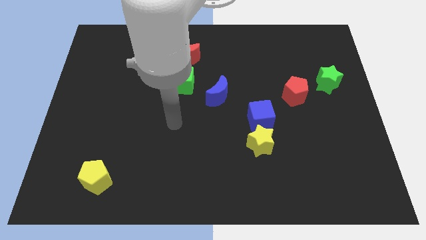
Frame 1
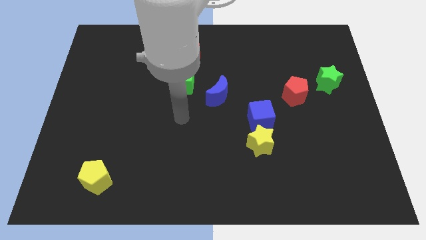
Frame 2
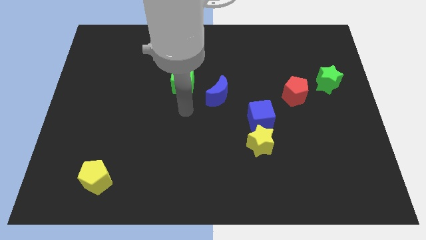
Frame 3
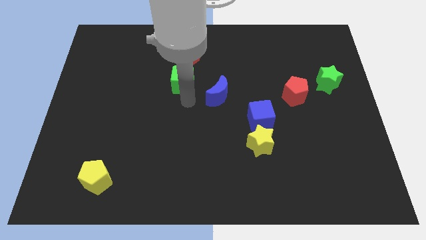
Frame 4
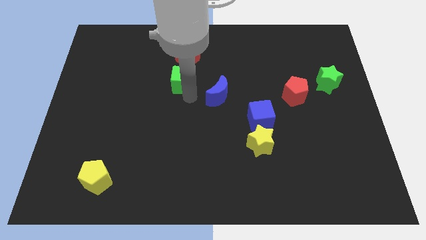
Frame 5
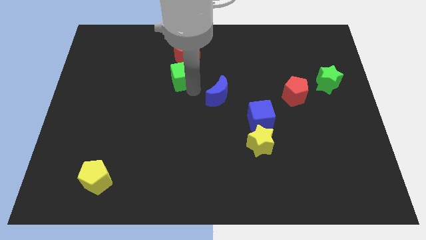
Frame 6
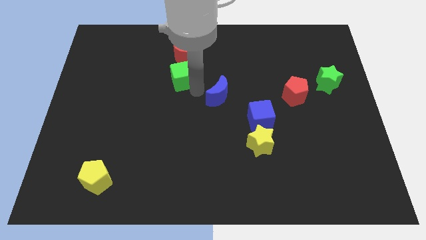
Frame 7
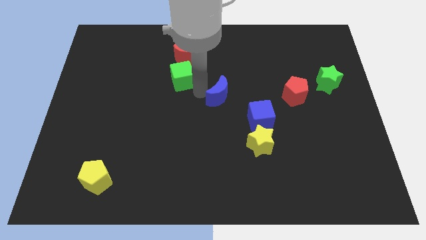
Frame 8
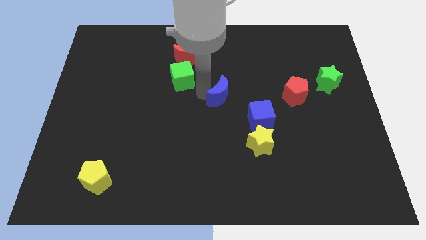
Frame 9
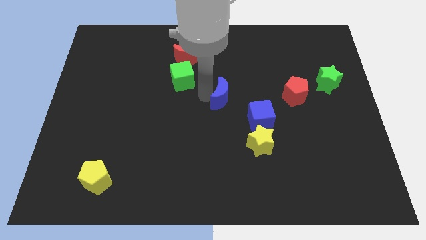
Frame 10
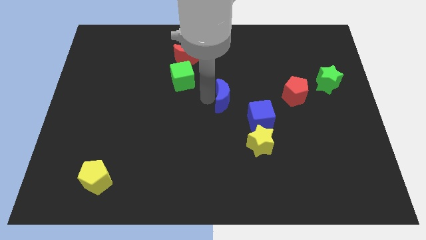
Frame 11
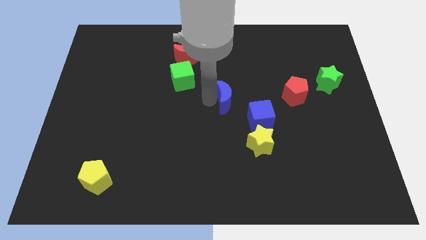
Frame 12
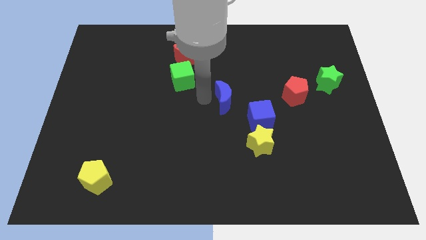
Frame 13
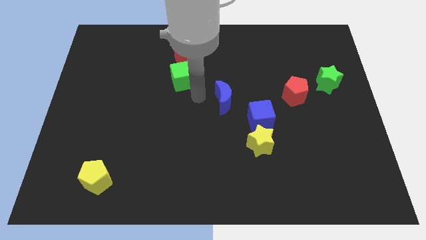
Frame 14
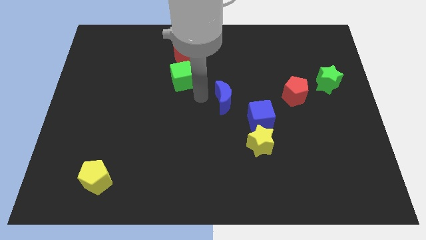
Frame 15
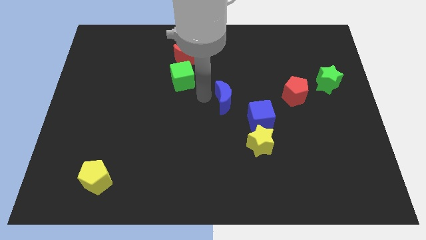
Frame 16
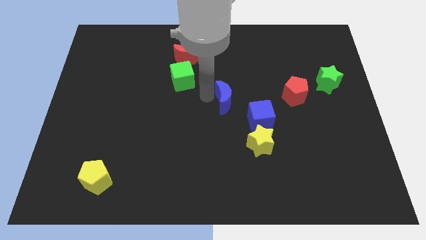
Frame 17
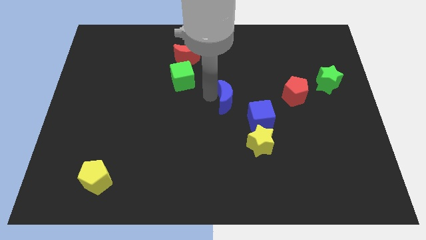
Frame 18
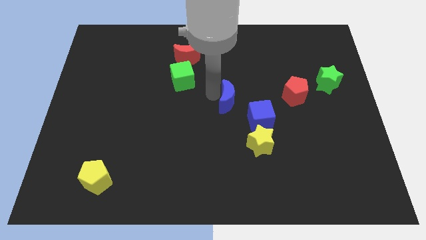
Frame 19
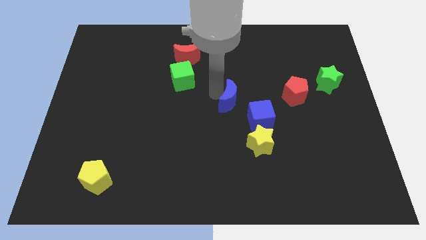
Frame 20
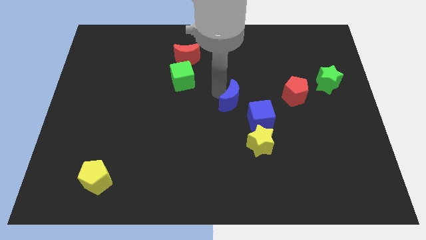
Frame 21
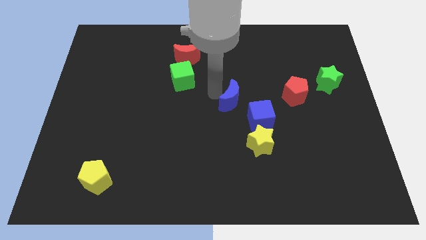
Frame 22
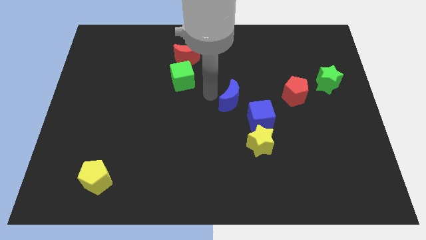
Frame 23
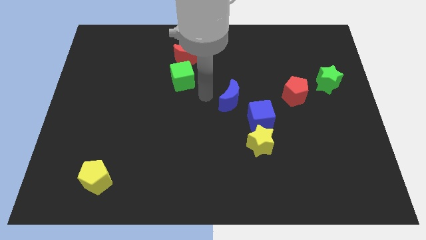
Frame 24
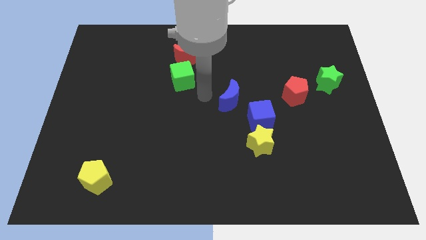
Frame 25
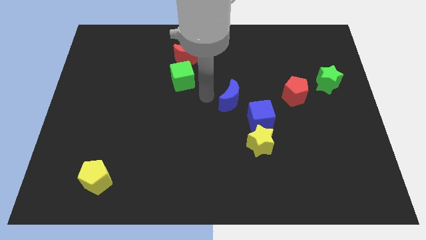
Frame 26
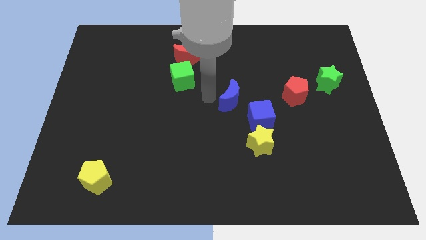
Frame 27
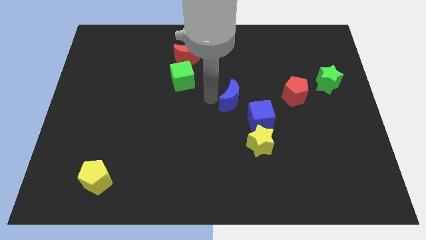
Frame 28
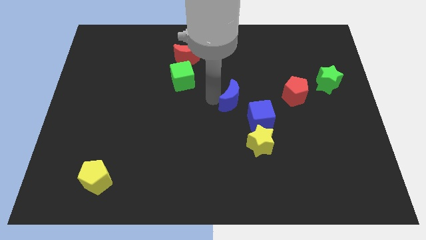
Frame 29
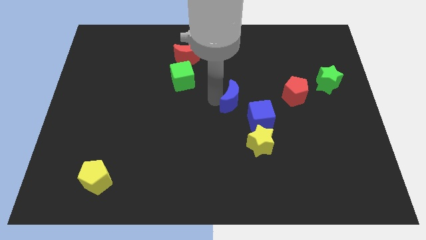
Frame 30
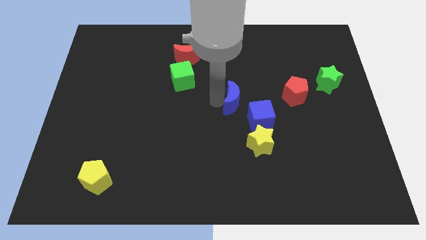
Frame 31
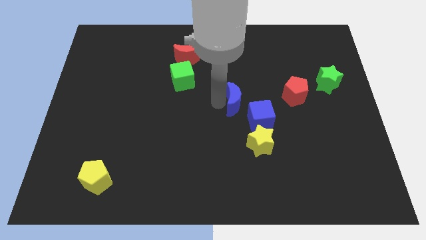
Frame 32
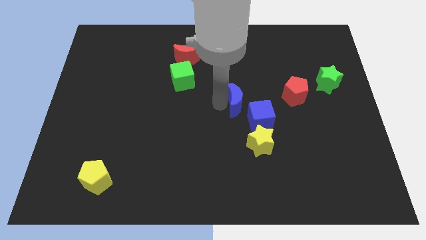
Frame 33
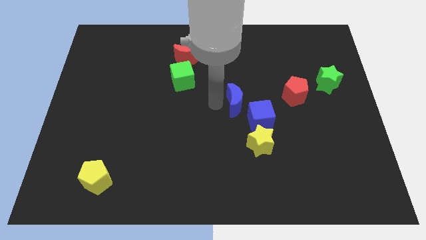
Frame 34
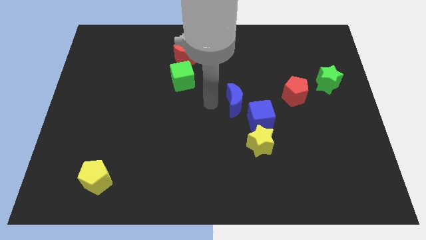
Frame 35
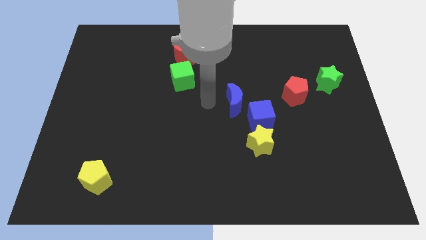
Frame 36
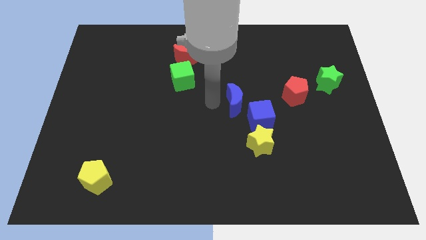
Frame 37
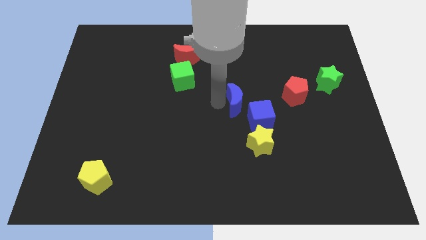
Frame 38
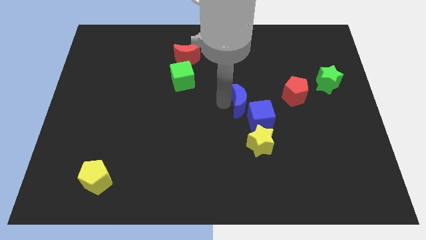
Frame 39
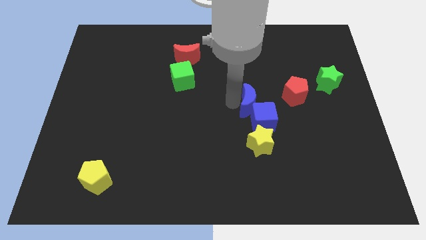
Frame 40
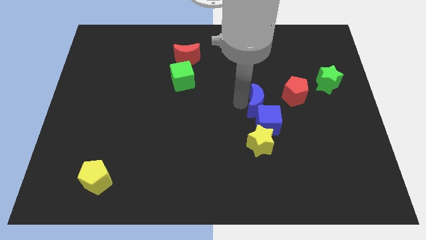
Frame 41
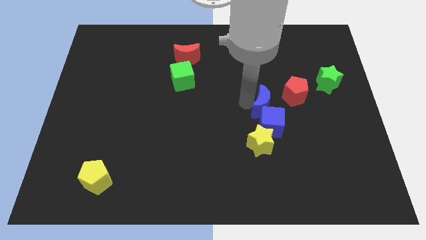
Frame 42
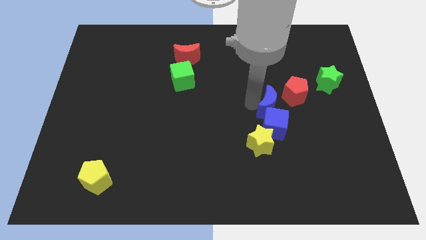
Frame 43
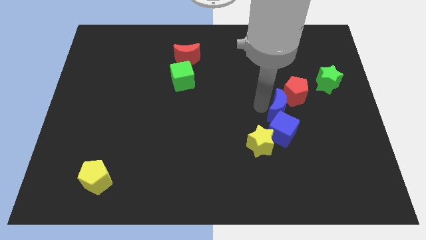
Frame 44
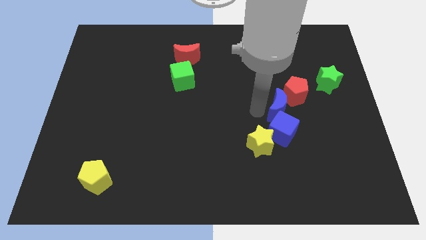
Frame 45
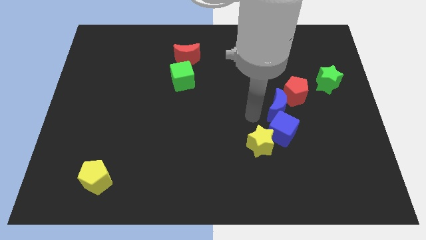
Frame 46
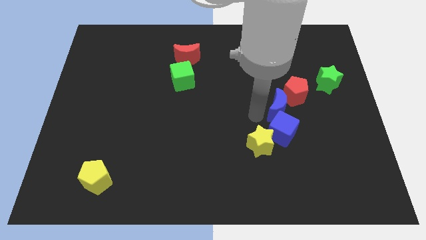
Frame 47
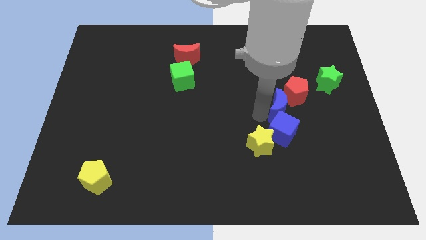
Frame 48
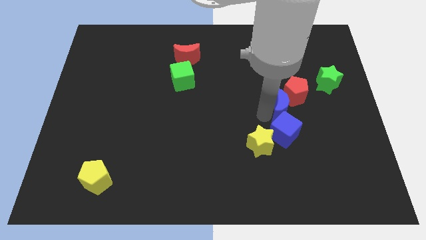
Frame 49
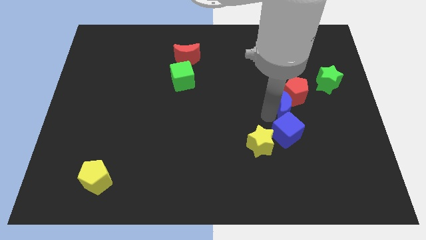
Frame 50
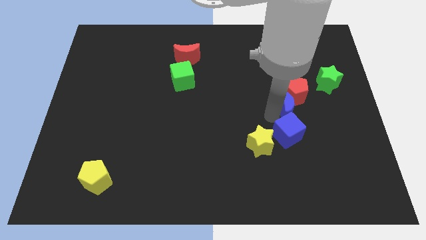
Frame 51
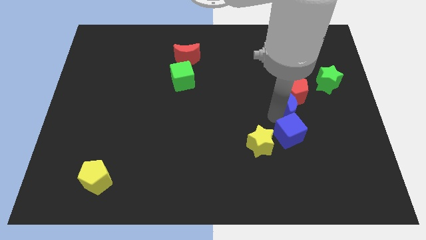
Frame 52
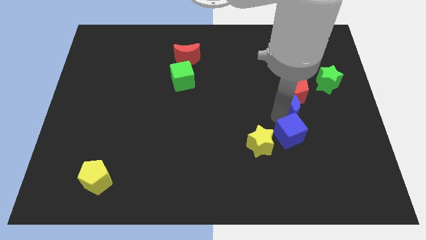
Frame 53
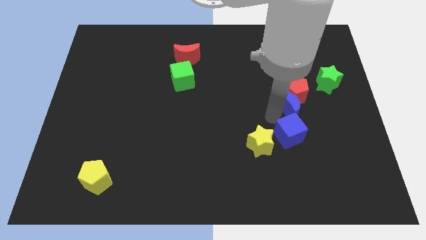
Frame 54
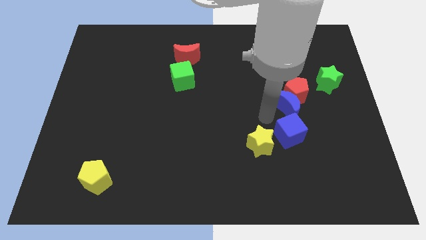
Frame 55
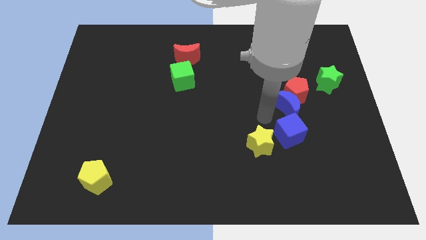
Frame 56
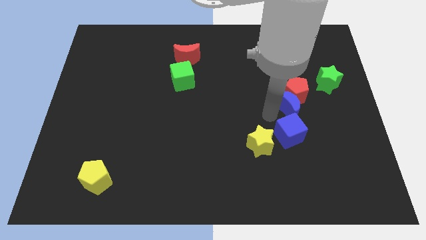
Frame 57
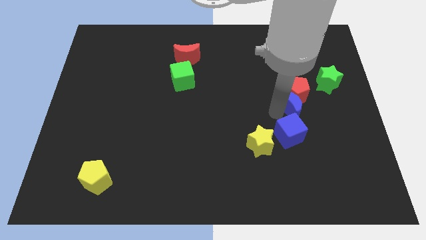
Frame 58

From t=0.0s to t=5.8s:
slide the blue moon to the bottom left of the green star

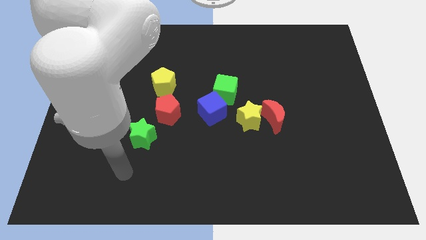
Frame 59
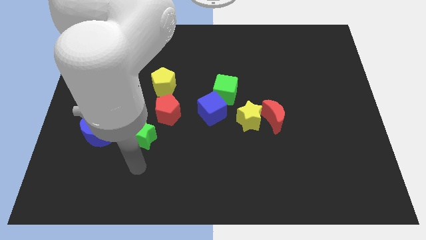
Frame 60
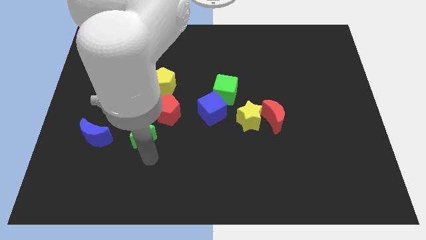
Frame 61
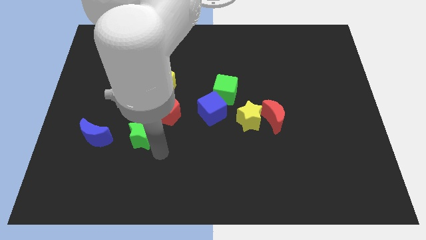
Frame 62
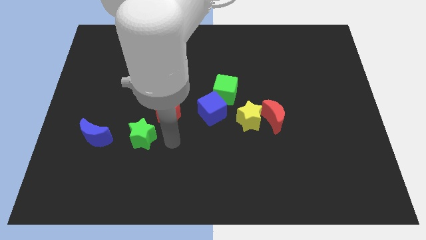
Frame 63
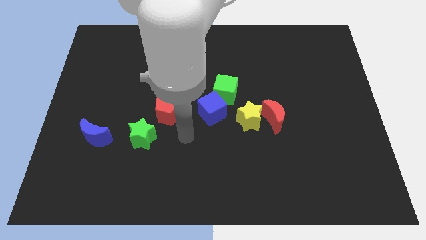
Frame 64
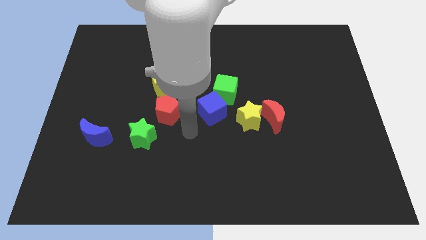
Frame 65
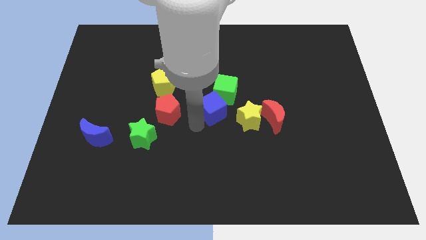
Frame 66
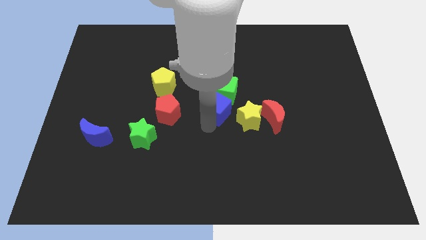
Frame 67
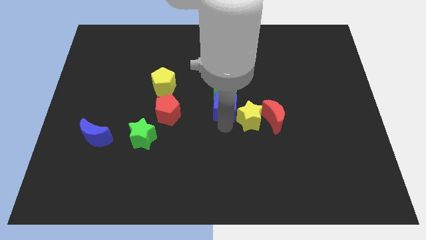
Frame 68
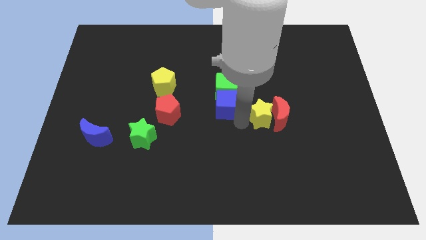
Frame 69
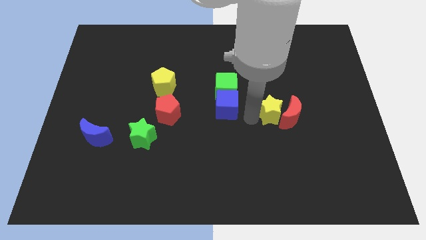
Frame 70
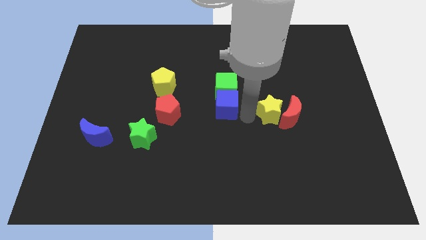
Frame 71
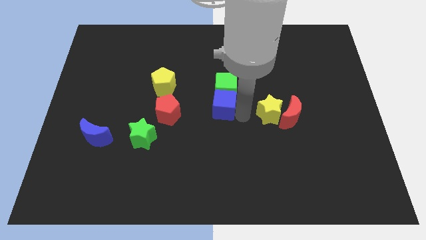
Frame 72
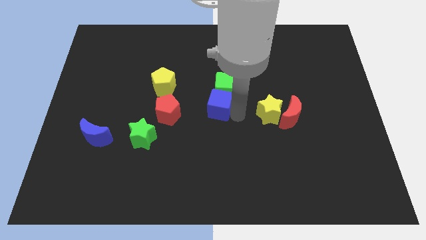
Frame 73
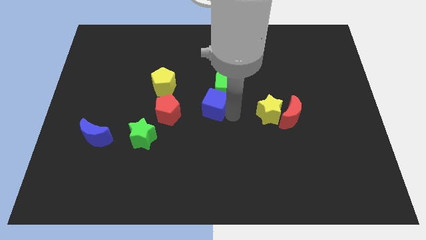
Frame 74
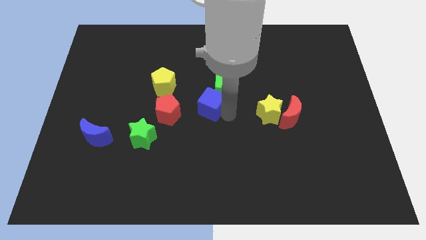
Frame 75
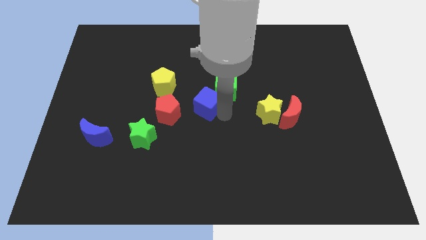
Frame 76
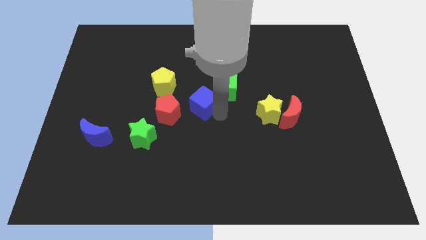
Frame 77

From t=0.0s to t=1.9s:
put the blue cube to the left of the green cube
